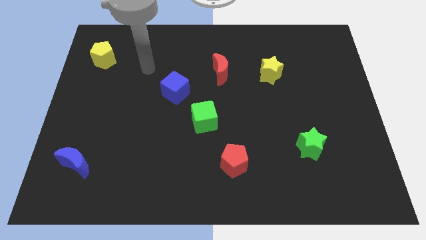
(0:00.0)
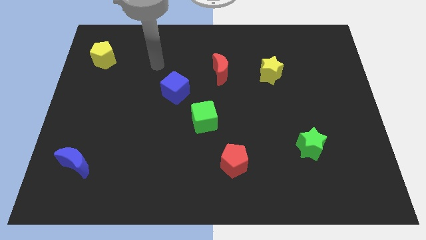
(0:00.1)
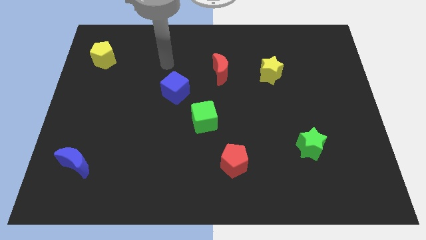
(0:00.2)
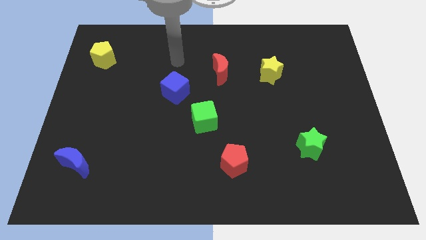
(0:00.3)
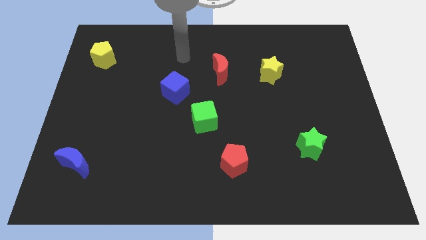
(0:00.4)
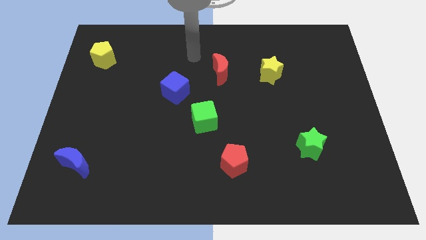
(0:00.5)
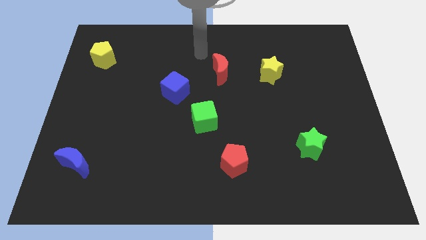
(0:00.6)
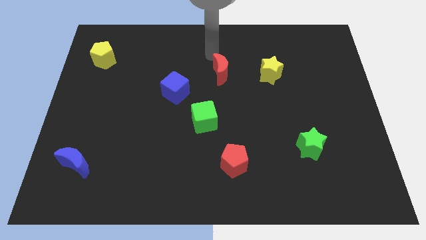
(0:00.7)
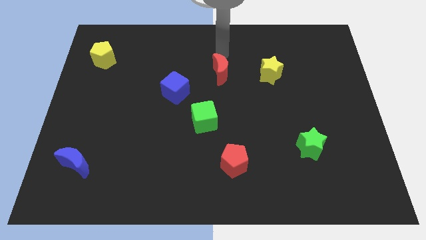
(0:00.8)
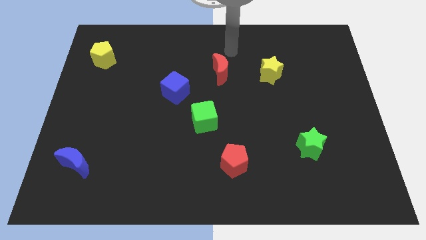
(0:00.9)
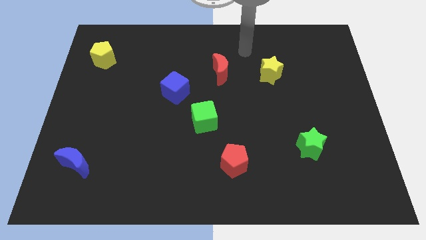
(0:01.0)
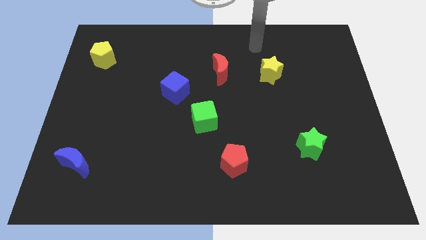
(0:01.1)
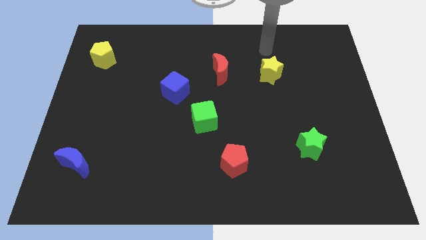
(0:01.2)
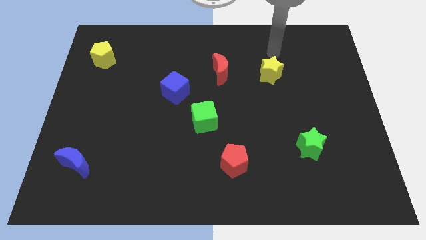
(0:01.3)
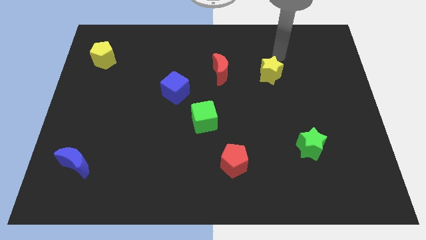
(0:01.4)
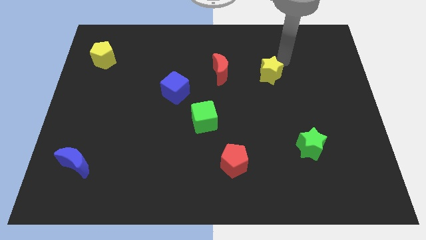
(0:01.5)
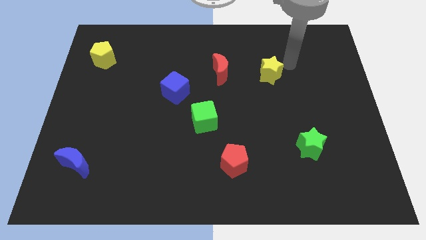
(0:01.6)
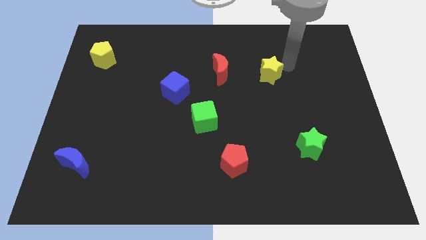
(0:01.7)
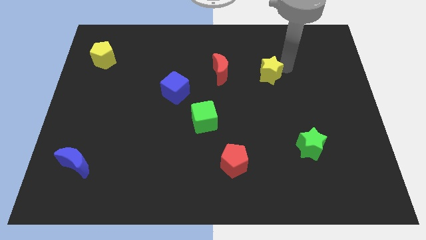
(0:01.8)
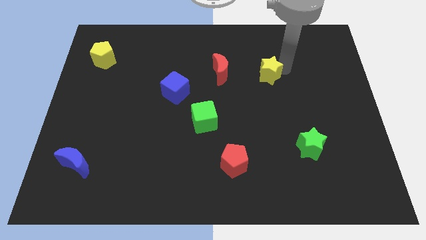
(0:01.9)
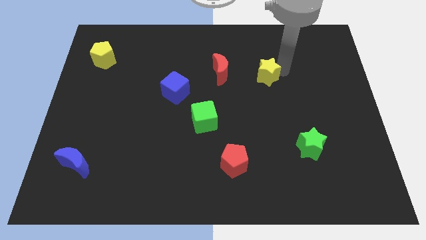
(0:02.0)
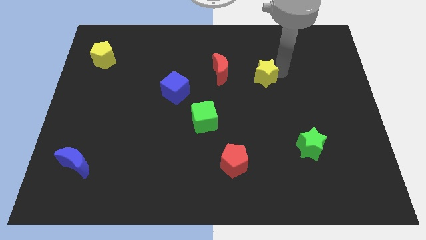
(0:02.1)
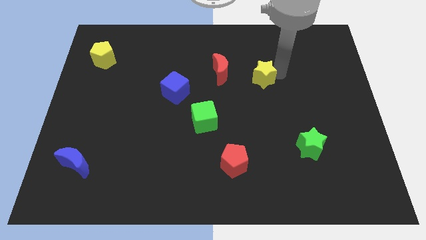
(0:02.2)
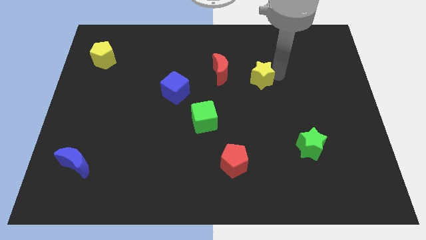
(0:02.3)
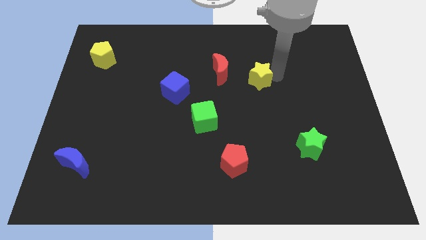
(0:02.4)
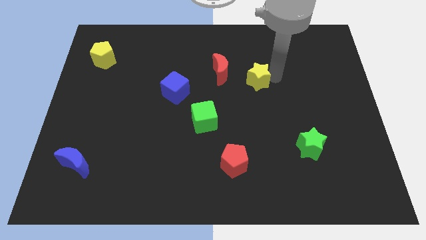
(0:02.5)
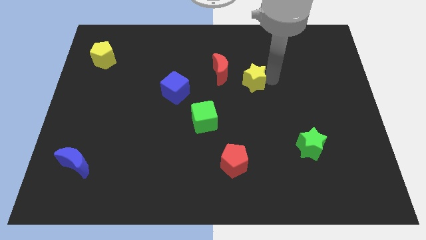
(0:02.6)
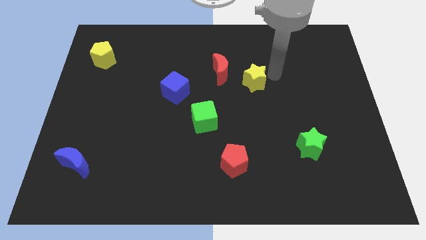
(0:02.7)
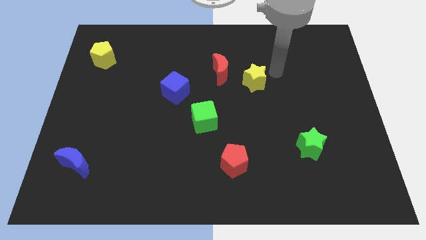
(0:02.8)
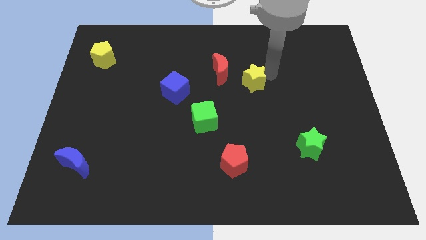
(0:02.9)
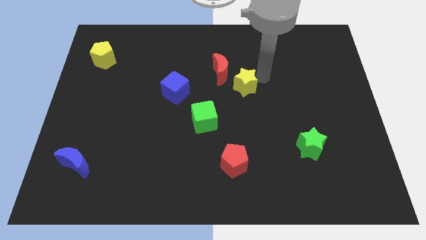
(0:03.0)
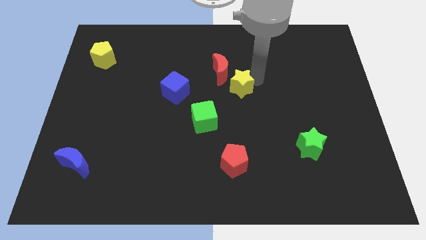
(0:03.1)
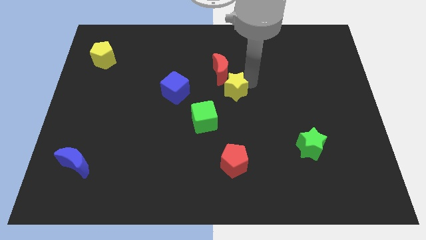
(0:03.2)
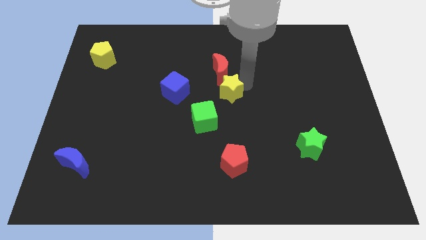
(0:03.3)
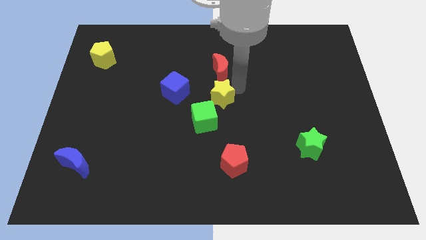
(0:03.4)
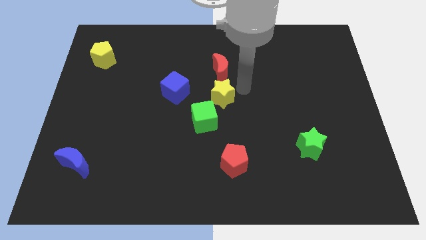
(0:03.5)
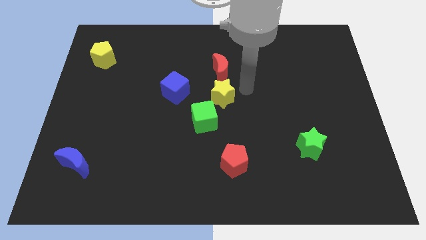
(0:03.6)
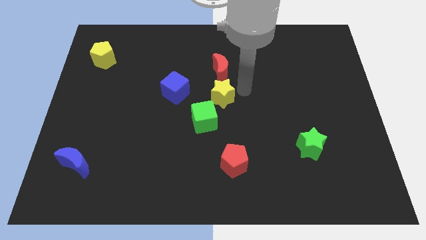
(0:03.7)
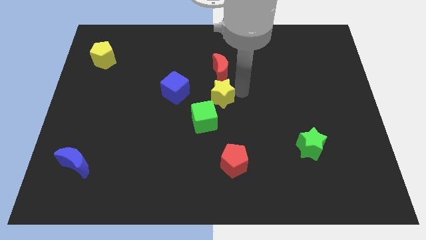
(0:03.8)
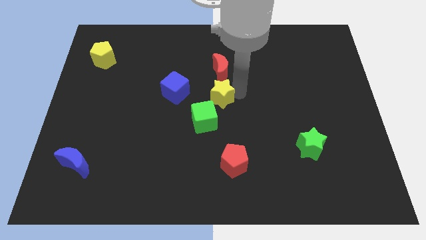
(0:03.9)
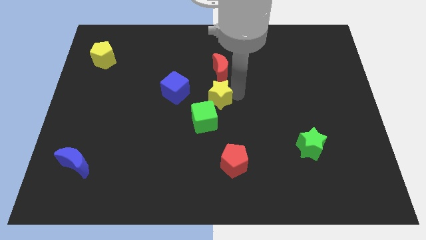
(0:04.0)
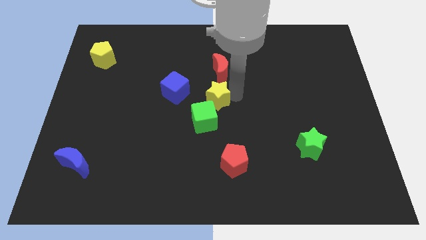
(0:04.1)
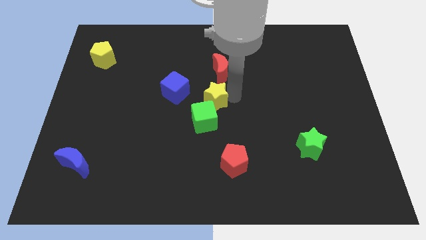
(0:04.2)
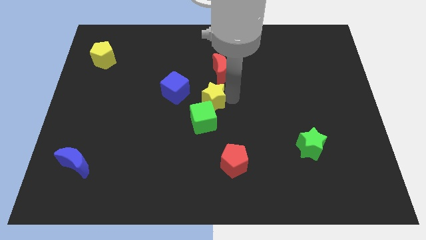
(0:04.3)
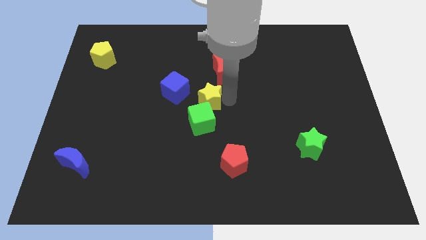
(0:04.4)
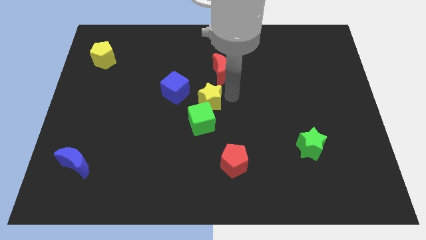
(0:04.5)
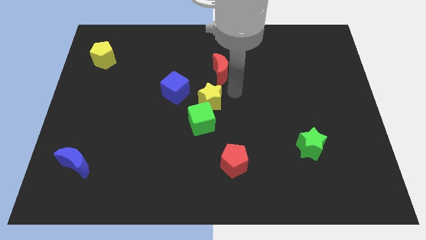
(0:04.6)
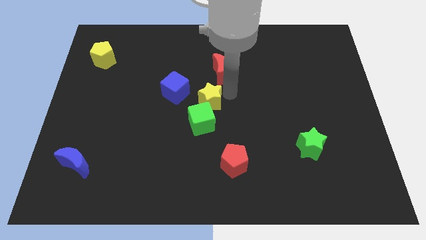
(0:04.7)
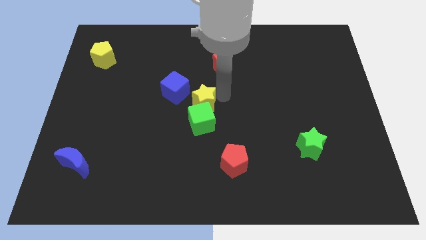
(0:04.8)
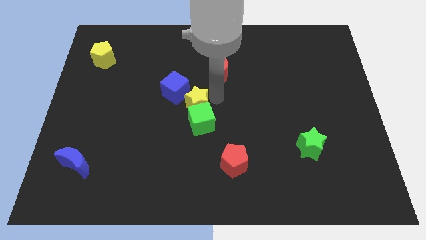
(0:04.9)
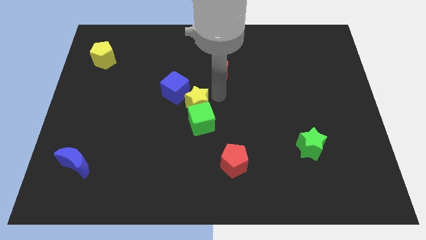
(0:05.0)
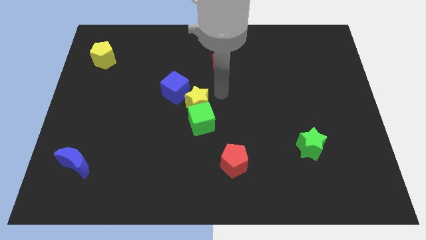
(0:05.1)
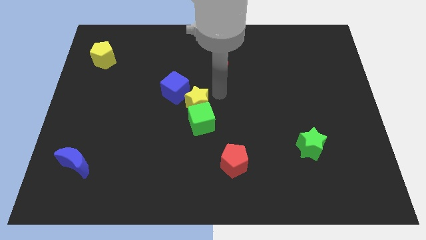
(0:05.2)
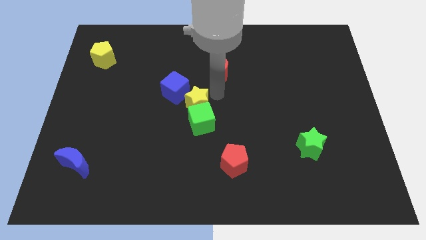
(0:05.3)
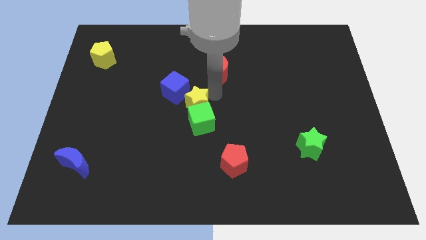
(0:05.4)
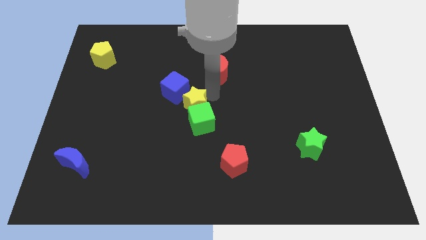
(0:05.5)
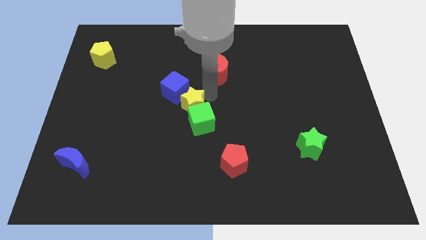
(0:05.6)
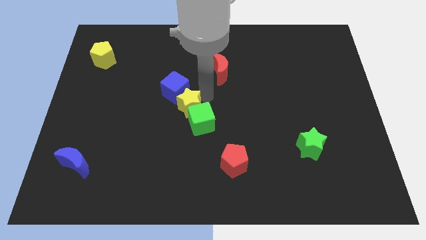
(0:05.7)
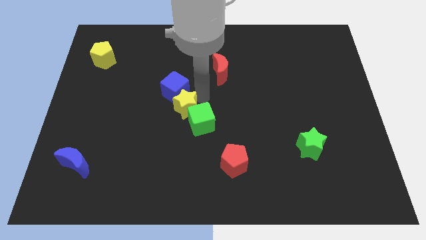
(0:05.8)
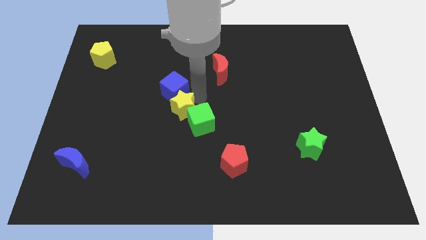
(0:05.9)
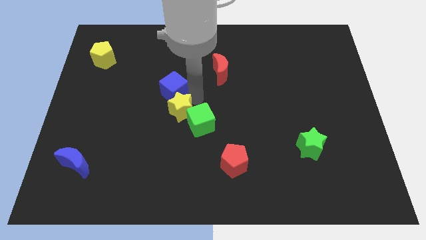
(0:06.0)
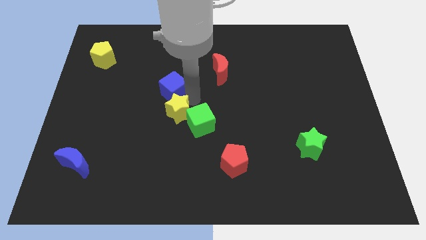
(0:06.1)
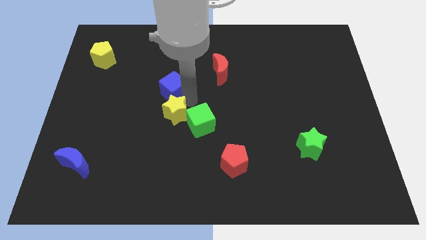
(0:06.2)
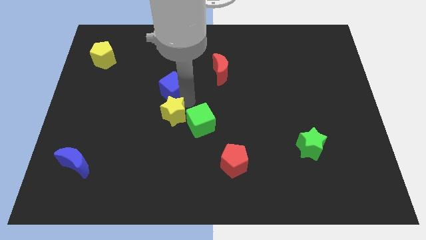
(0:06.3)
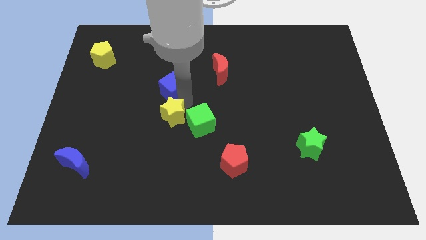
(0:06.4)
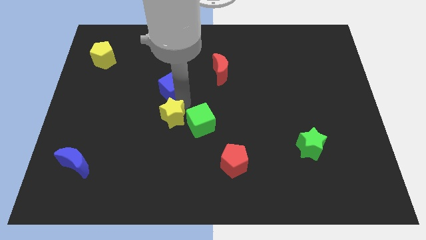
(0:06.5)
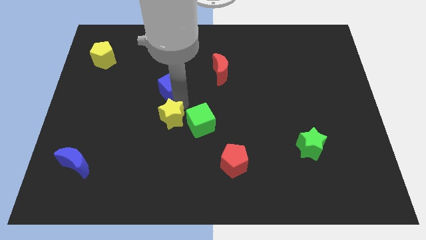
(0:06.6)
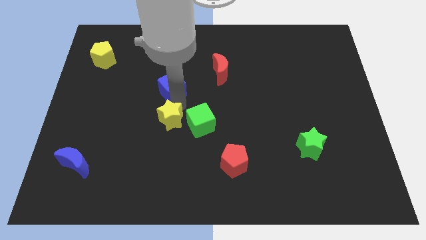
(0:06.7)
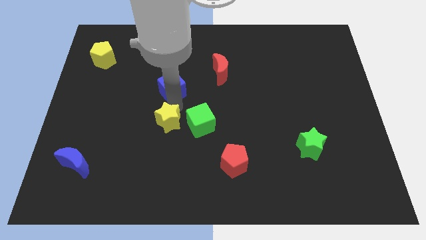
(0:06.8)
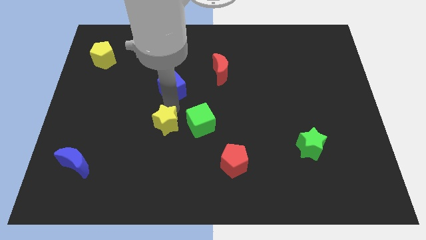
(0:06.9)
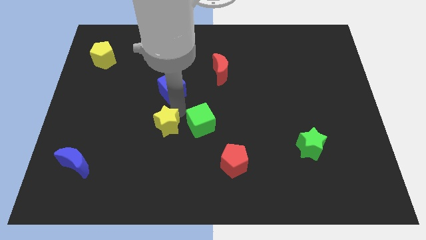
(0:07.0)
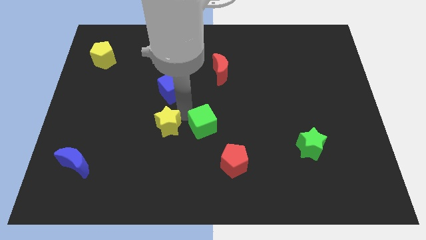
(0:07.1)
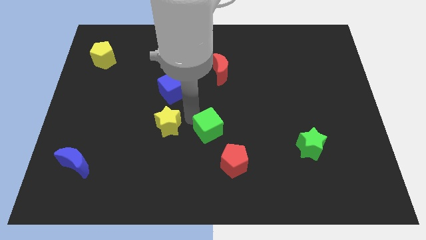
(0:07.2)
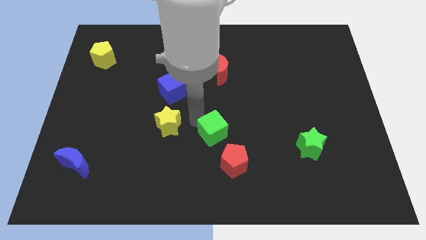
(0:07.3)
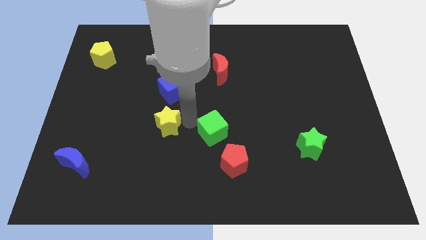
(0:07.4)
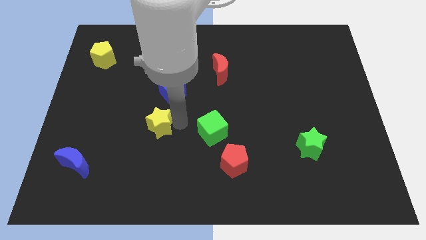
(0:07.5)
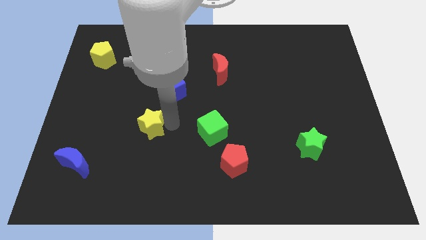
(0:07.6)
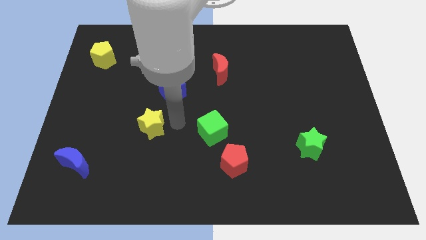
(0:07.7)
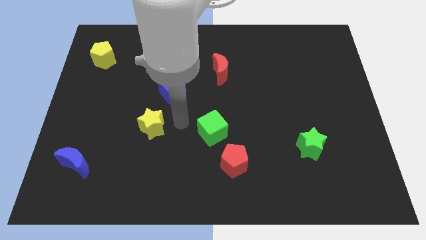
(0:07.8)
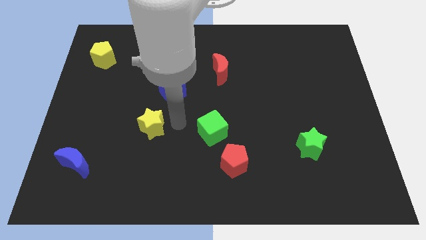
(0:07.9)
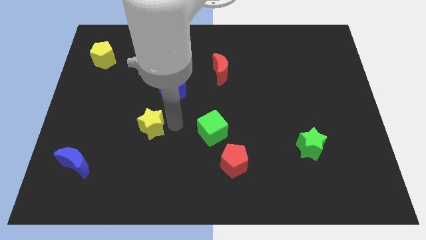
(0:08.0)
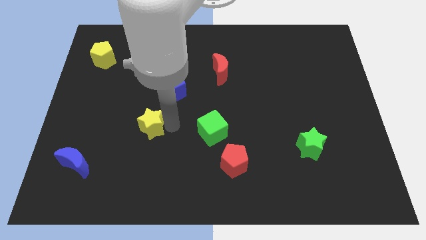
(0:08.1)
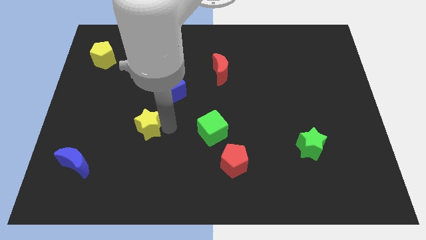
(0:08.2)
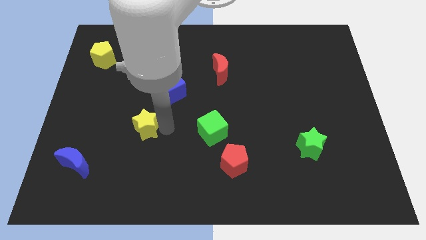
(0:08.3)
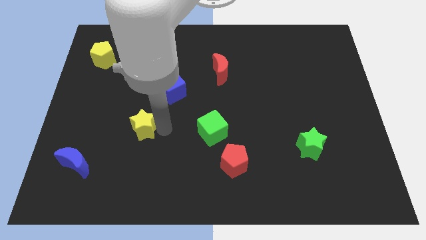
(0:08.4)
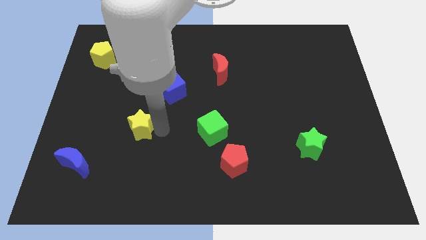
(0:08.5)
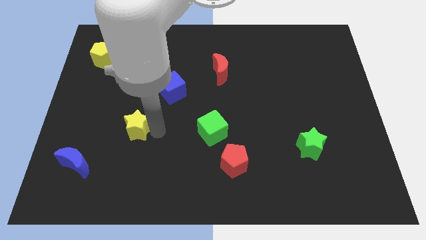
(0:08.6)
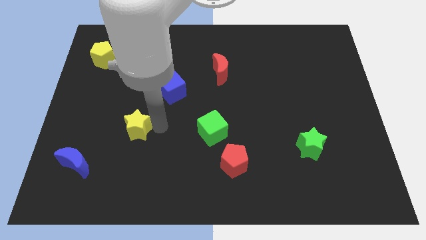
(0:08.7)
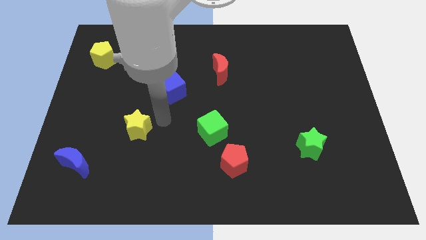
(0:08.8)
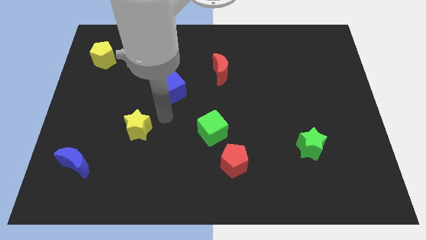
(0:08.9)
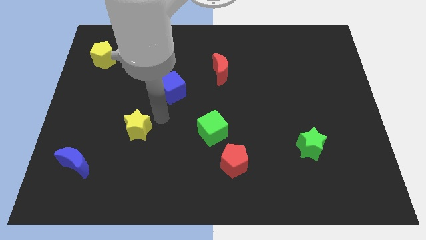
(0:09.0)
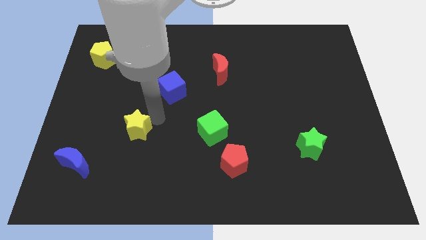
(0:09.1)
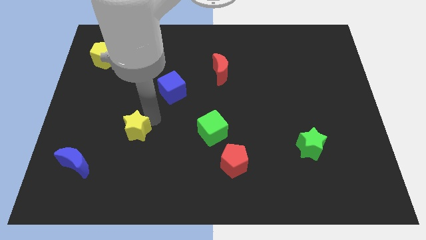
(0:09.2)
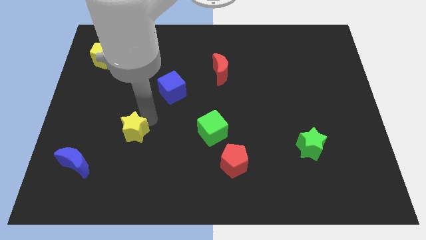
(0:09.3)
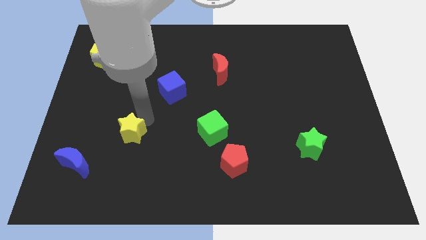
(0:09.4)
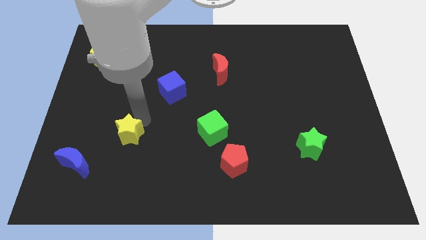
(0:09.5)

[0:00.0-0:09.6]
put the yellow star to the top right of the blue moon
